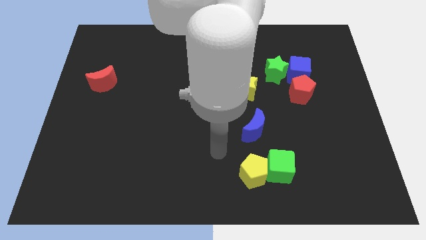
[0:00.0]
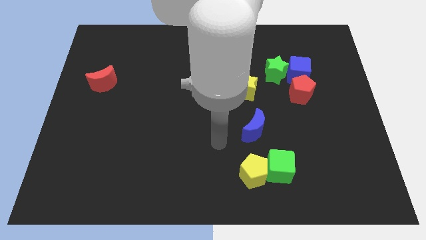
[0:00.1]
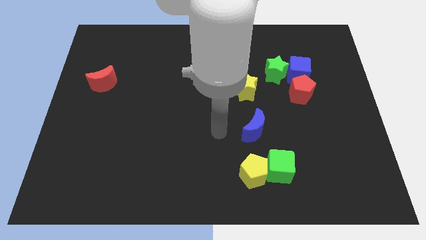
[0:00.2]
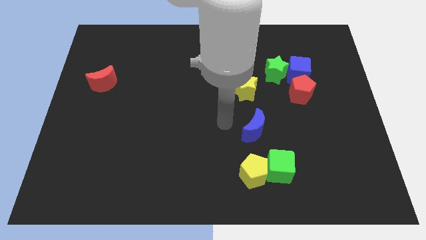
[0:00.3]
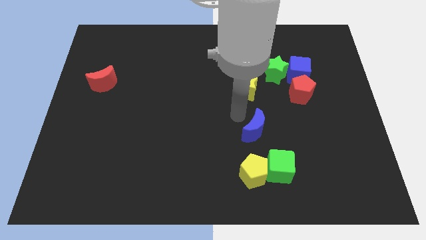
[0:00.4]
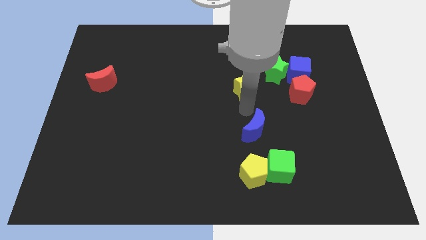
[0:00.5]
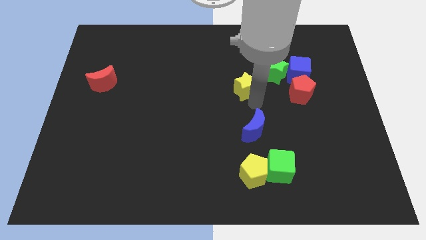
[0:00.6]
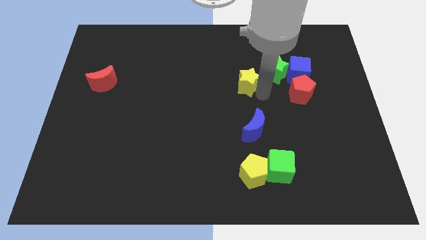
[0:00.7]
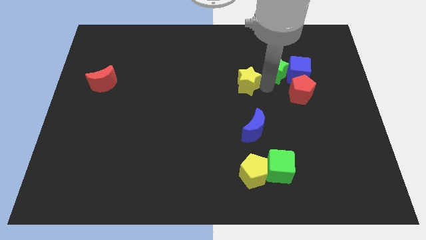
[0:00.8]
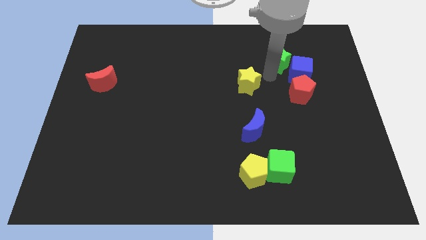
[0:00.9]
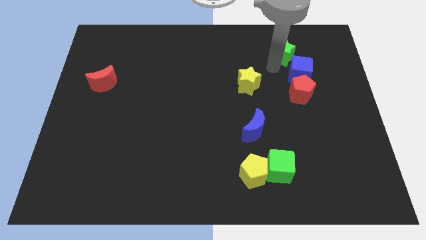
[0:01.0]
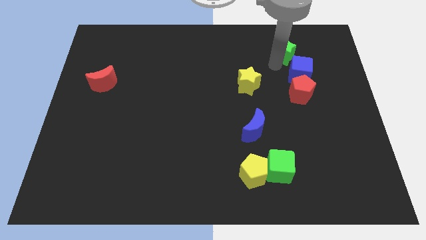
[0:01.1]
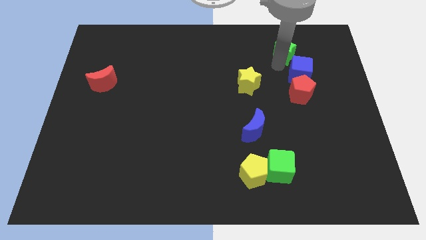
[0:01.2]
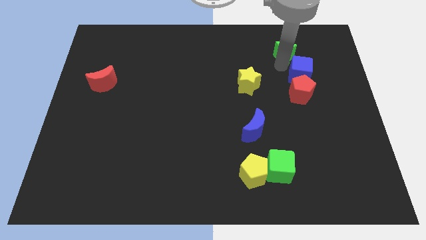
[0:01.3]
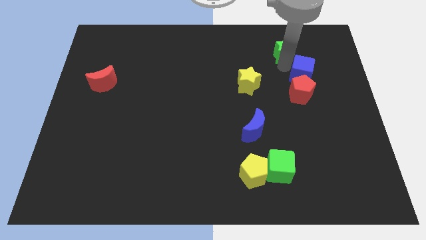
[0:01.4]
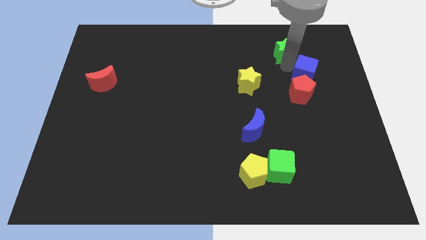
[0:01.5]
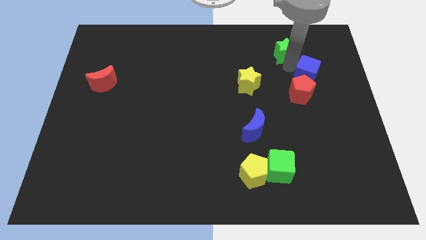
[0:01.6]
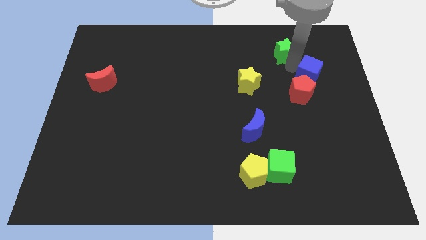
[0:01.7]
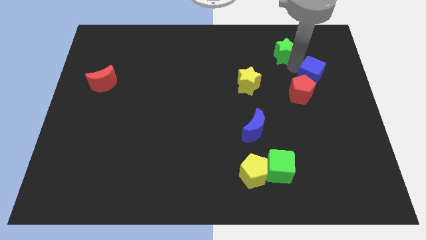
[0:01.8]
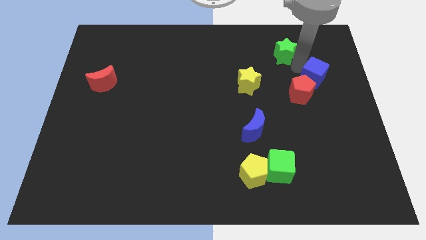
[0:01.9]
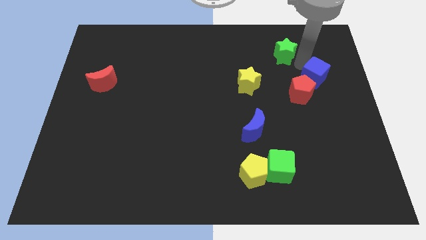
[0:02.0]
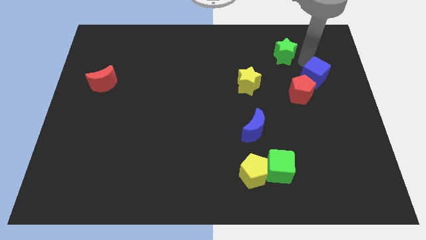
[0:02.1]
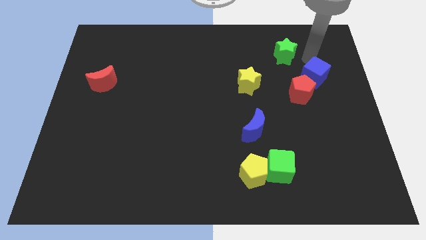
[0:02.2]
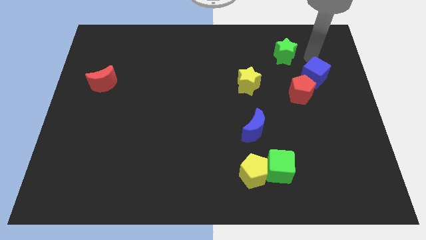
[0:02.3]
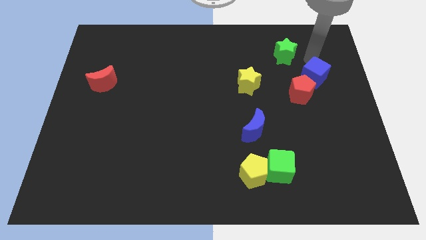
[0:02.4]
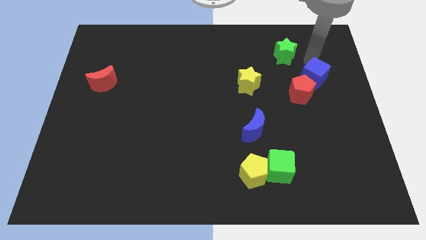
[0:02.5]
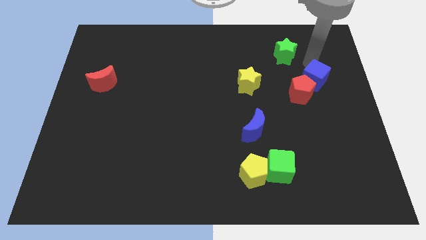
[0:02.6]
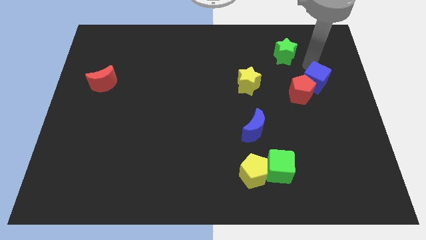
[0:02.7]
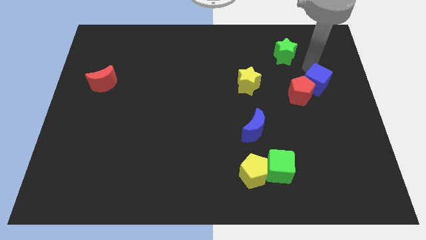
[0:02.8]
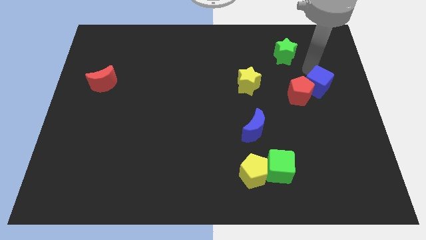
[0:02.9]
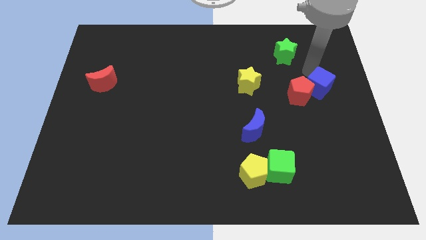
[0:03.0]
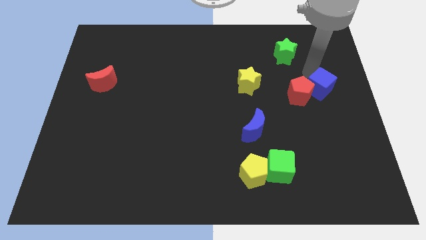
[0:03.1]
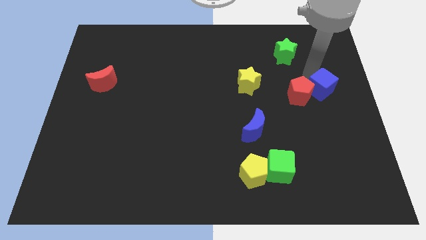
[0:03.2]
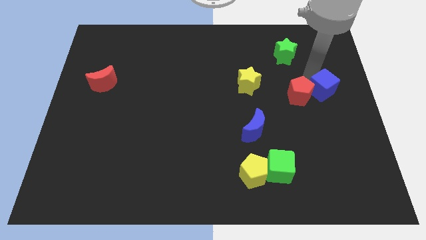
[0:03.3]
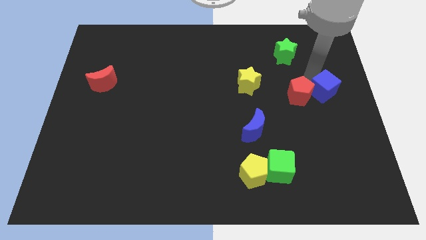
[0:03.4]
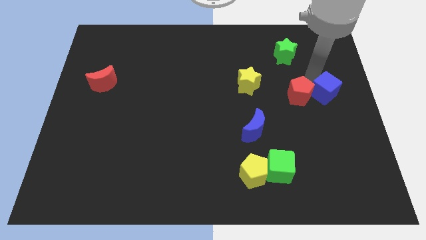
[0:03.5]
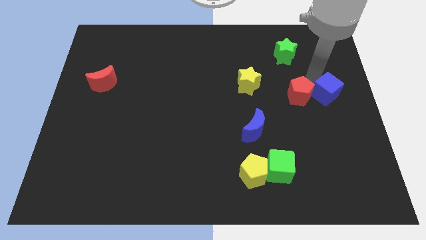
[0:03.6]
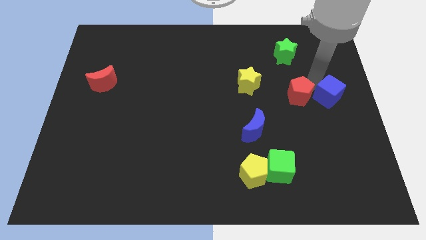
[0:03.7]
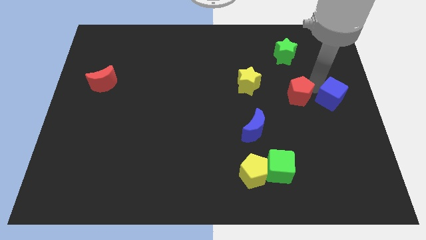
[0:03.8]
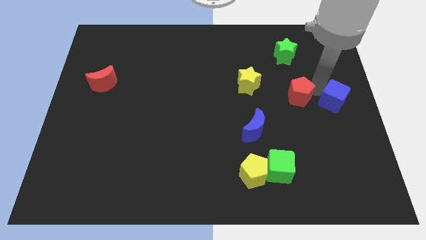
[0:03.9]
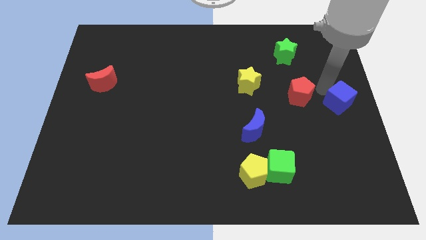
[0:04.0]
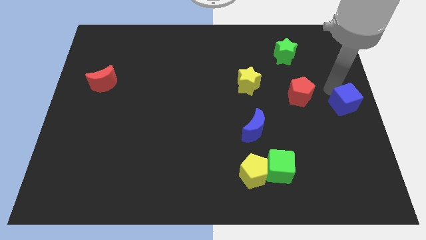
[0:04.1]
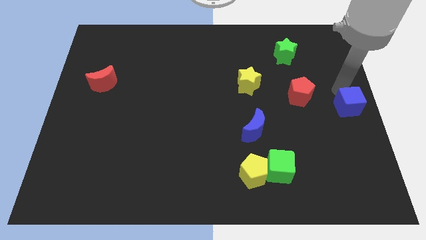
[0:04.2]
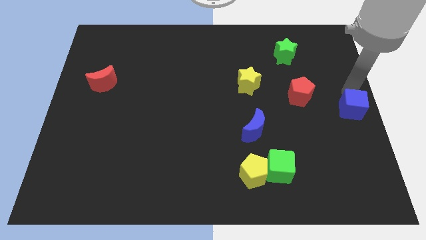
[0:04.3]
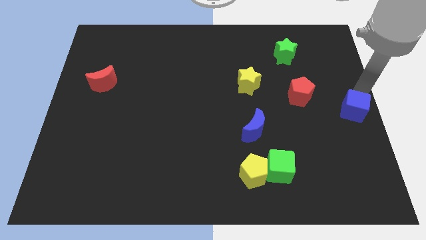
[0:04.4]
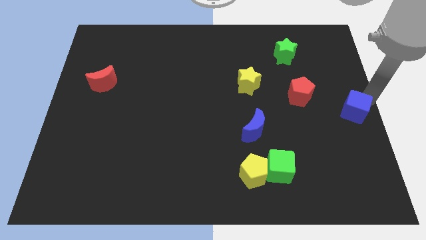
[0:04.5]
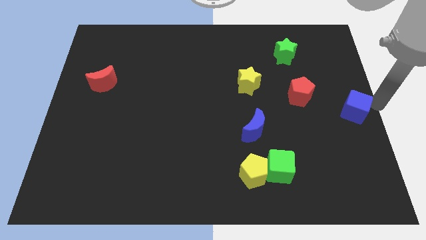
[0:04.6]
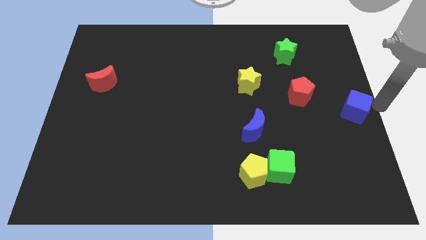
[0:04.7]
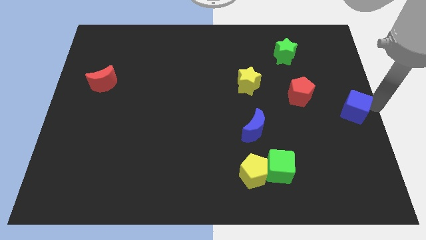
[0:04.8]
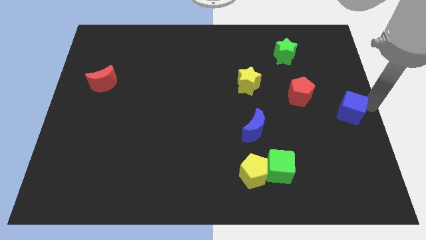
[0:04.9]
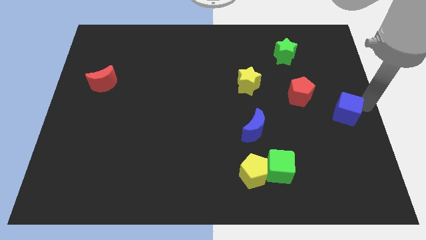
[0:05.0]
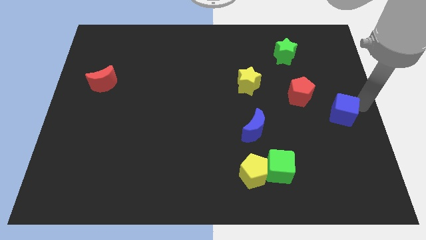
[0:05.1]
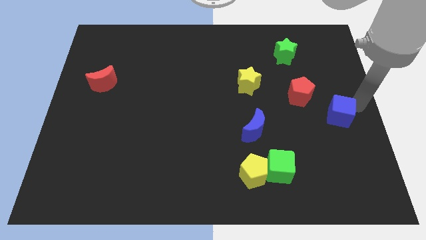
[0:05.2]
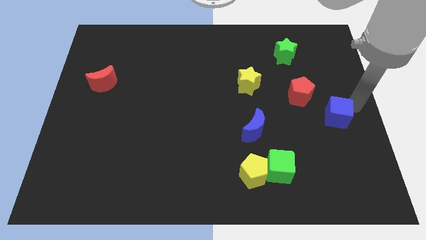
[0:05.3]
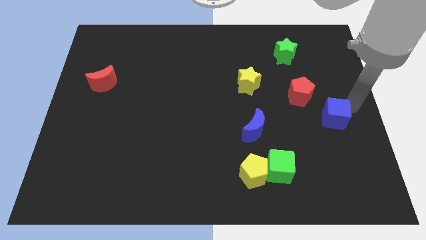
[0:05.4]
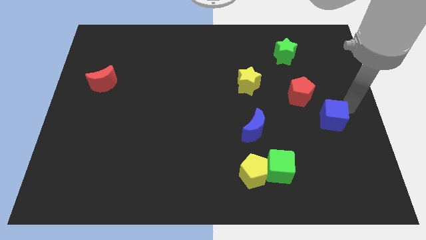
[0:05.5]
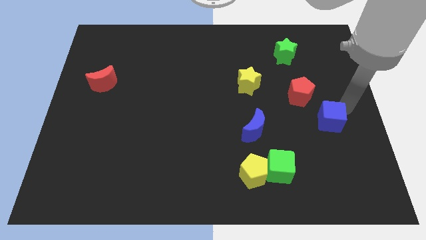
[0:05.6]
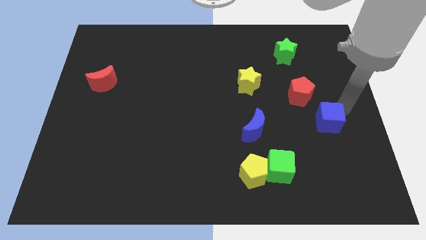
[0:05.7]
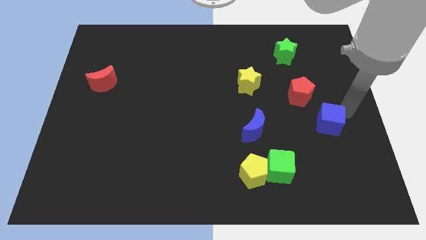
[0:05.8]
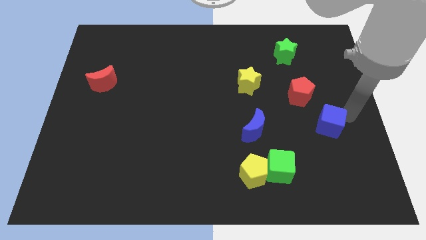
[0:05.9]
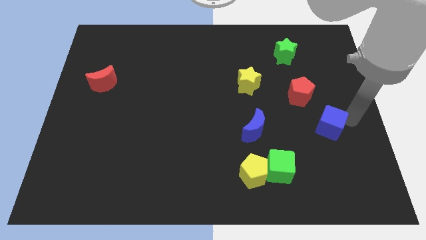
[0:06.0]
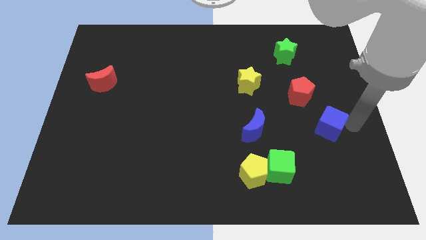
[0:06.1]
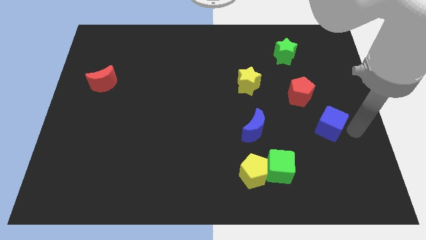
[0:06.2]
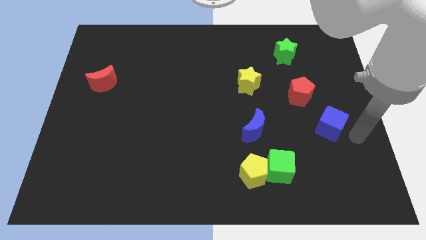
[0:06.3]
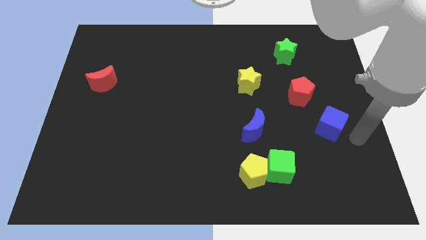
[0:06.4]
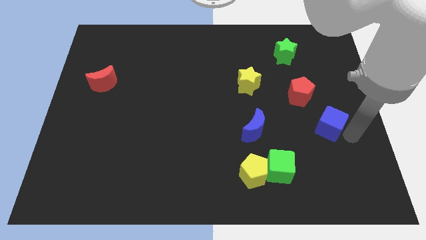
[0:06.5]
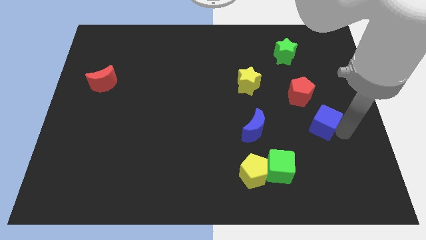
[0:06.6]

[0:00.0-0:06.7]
push the blue cube to the right of the blue moon

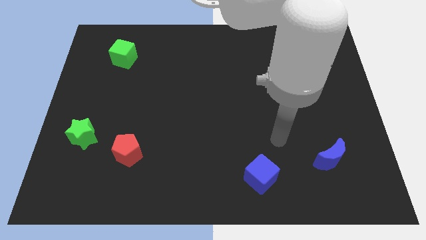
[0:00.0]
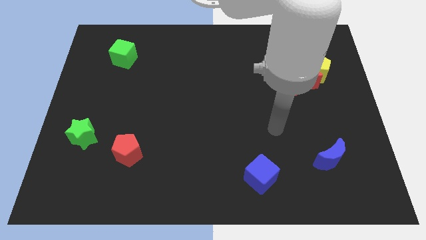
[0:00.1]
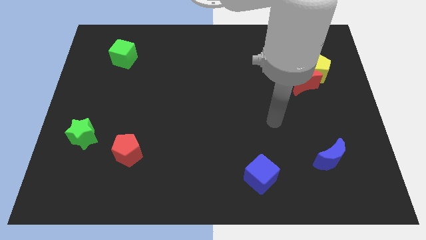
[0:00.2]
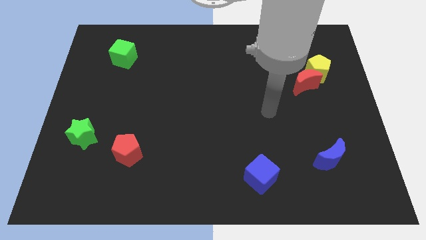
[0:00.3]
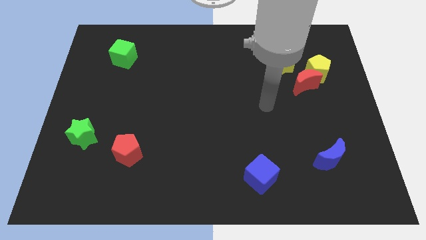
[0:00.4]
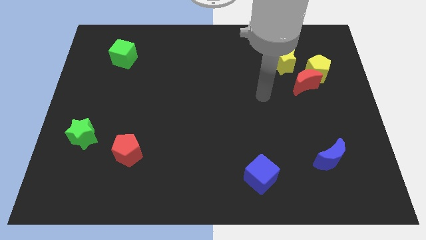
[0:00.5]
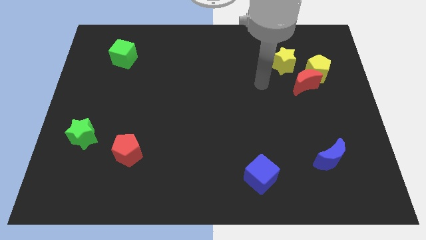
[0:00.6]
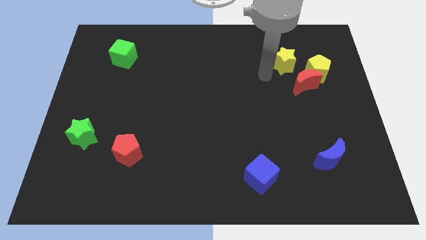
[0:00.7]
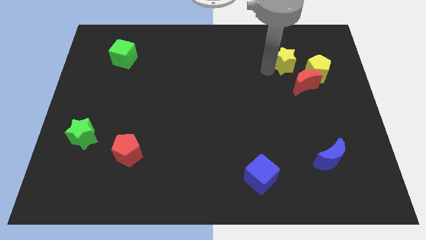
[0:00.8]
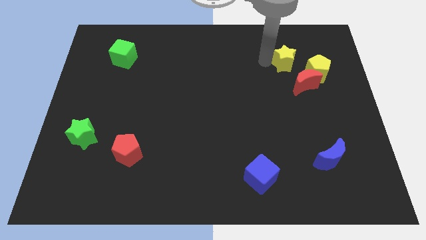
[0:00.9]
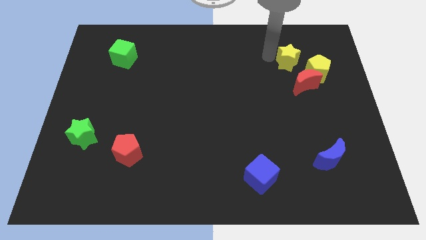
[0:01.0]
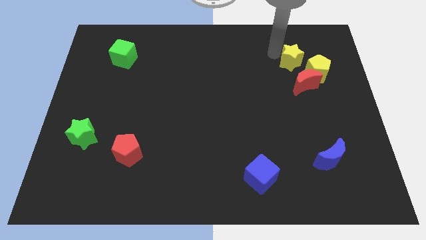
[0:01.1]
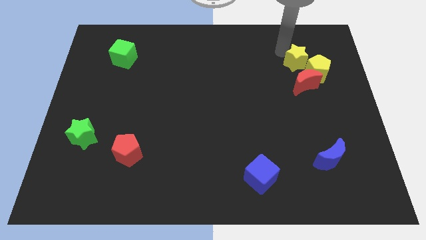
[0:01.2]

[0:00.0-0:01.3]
put the yellow pentagon to the bottom of the yellow star
